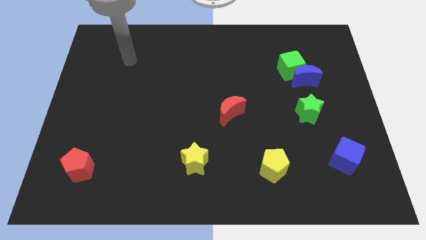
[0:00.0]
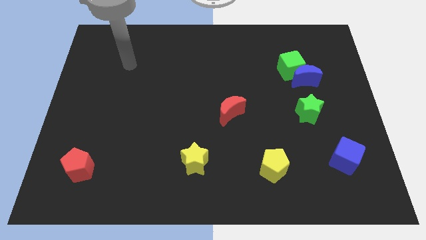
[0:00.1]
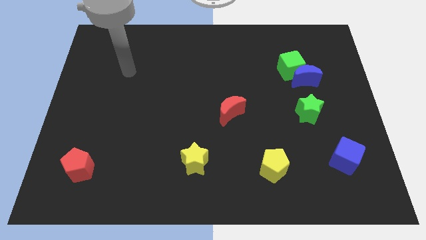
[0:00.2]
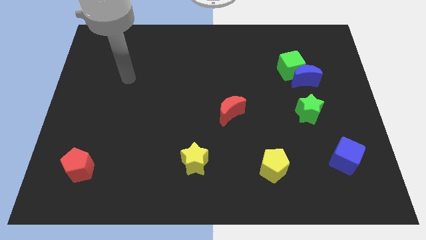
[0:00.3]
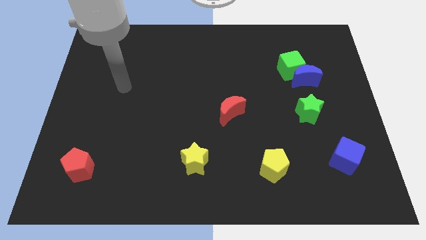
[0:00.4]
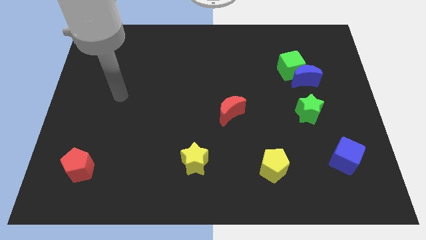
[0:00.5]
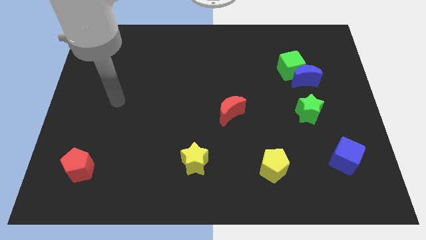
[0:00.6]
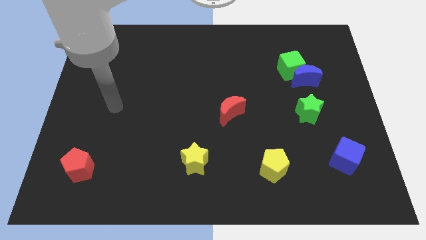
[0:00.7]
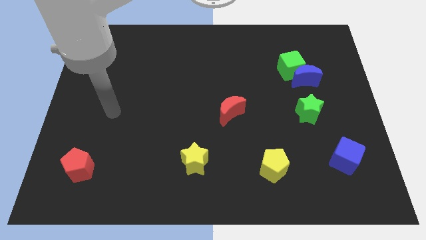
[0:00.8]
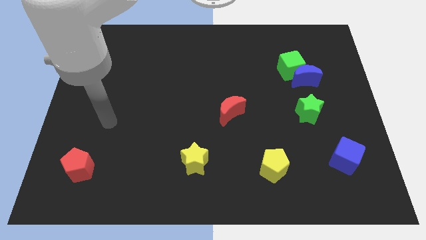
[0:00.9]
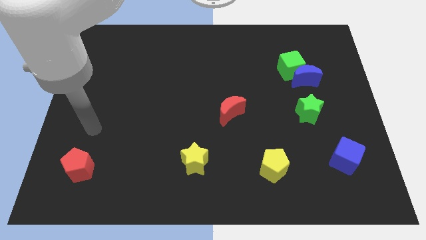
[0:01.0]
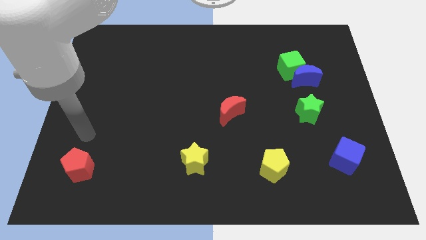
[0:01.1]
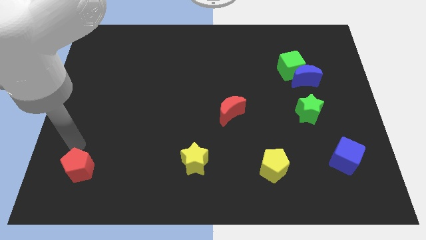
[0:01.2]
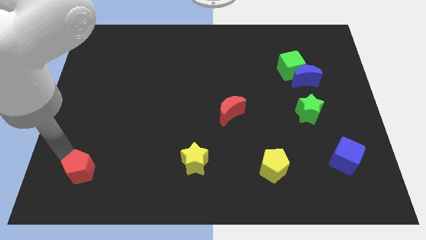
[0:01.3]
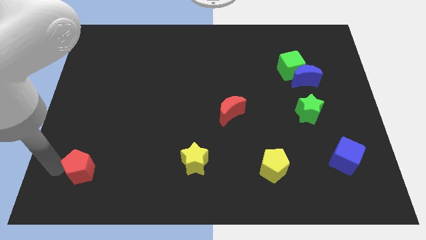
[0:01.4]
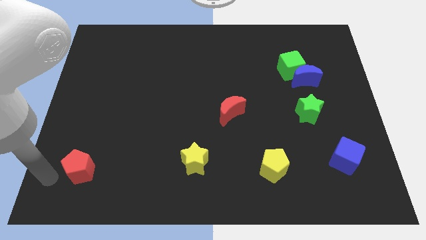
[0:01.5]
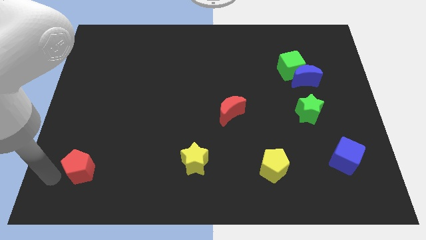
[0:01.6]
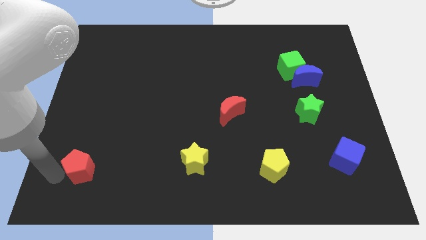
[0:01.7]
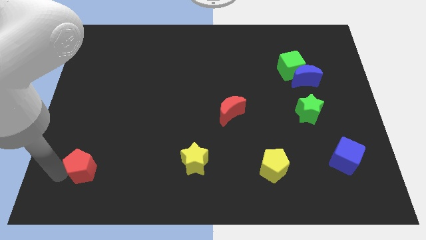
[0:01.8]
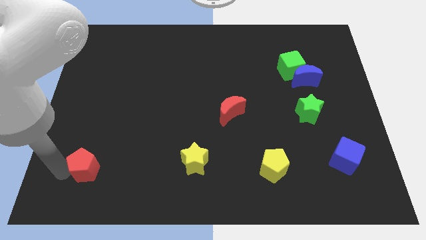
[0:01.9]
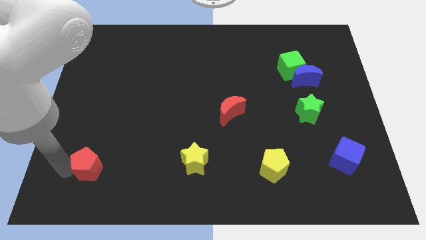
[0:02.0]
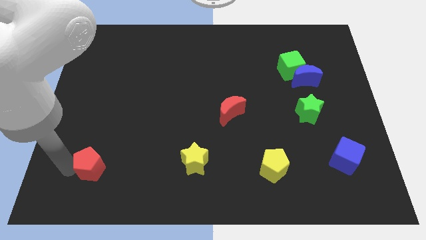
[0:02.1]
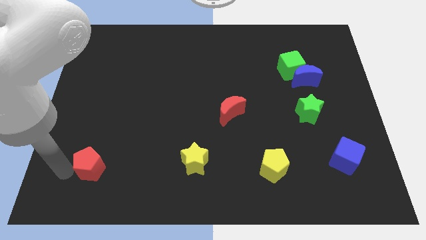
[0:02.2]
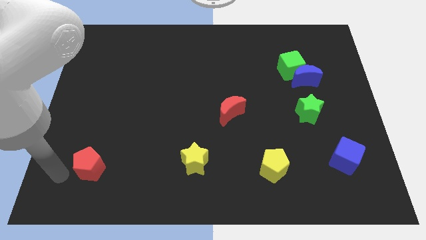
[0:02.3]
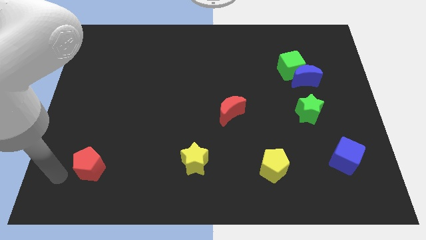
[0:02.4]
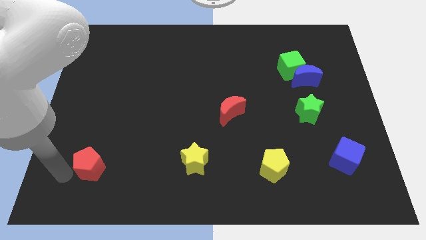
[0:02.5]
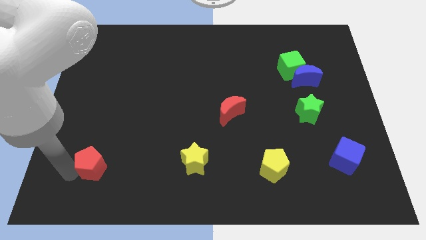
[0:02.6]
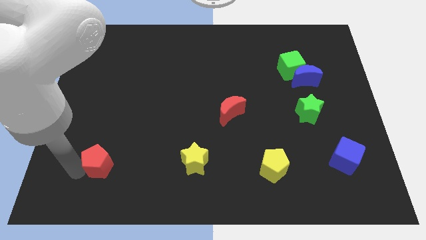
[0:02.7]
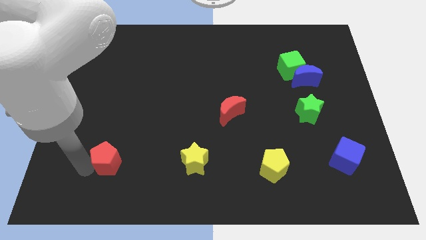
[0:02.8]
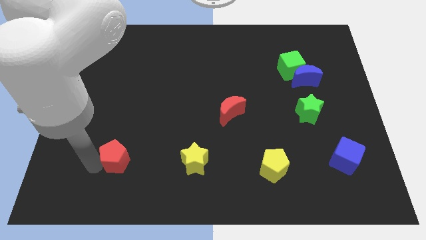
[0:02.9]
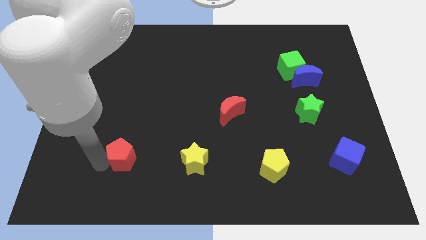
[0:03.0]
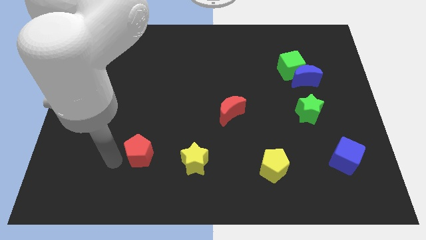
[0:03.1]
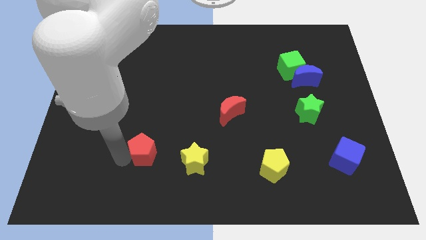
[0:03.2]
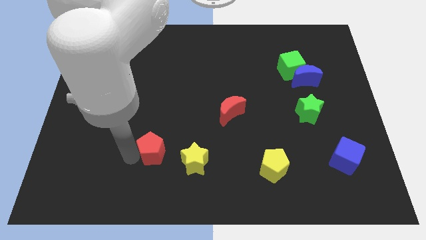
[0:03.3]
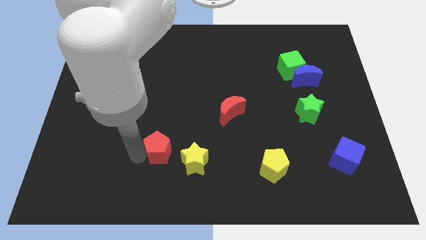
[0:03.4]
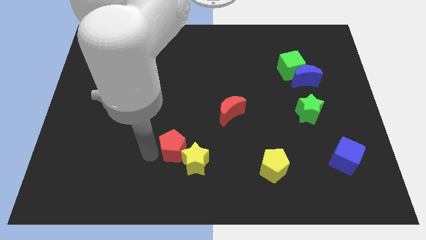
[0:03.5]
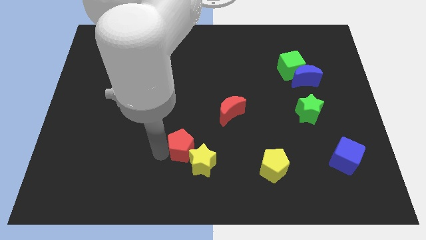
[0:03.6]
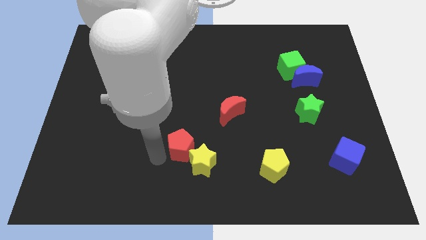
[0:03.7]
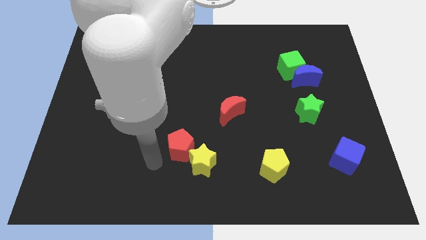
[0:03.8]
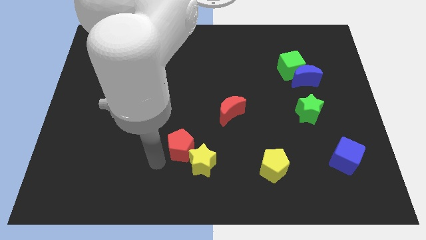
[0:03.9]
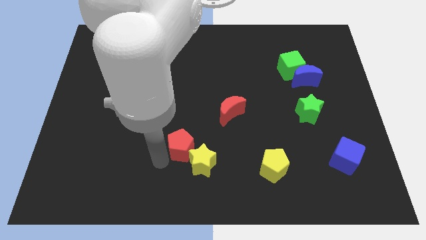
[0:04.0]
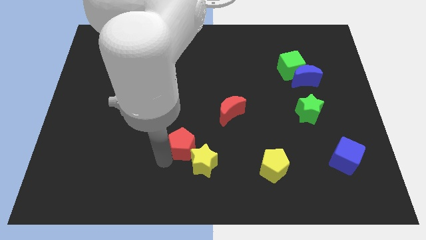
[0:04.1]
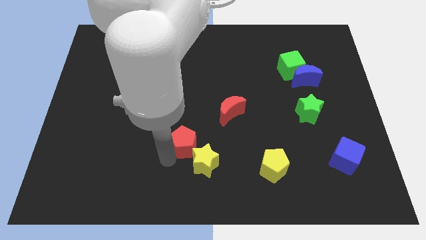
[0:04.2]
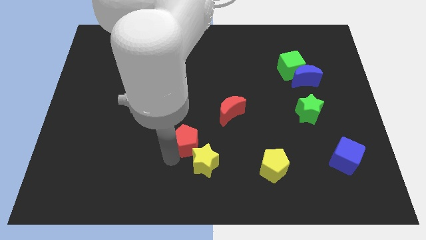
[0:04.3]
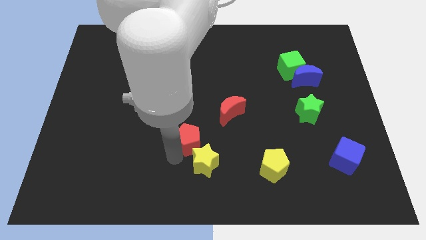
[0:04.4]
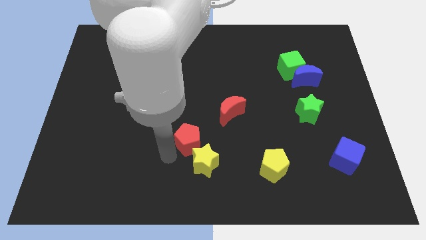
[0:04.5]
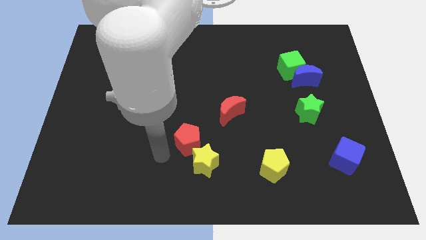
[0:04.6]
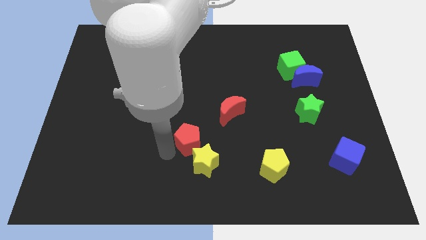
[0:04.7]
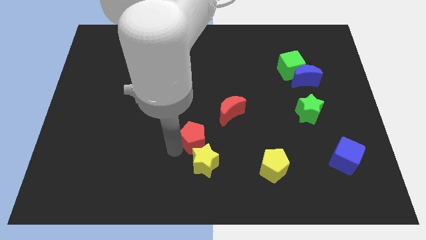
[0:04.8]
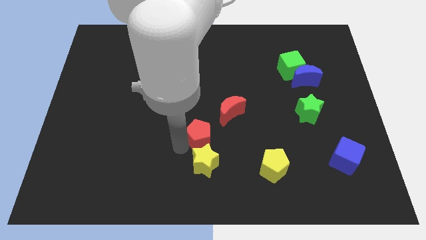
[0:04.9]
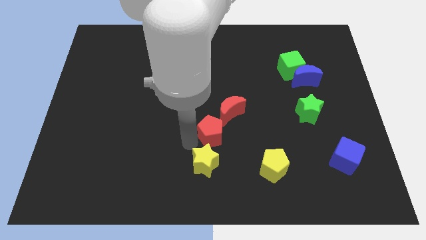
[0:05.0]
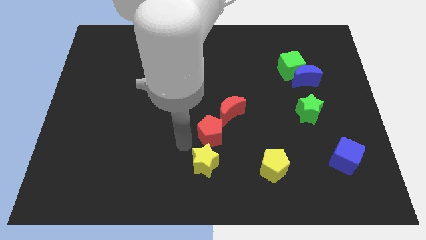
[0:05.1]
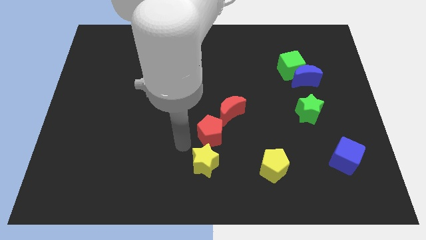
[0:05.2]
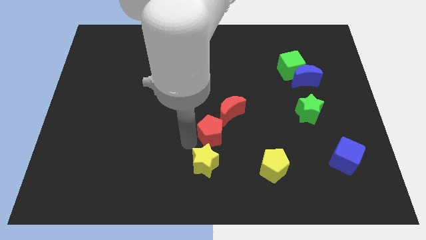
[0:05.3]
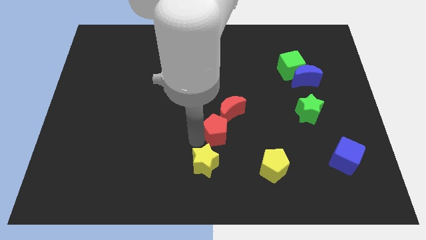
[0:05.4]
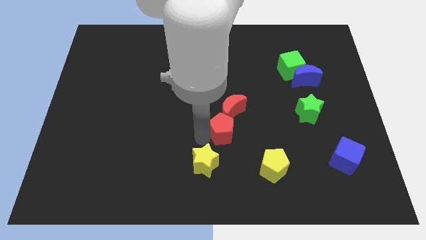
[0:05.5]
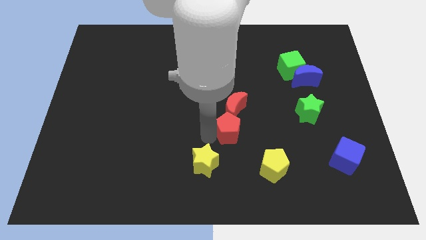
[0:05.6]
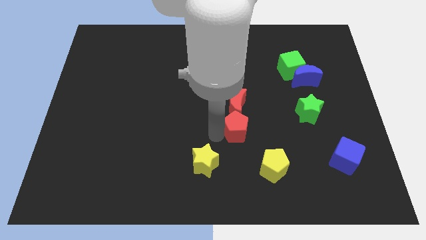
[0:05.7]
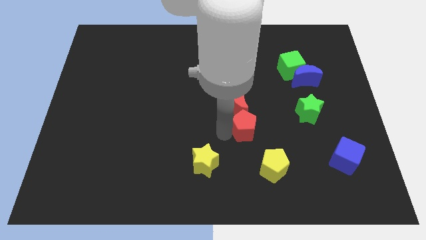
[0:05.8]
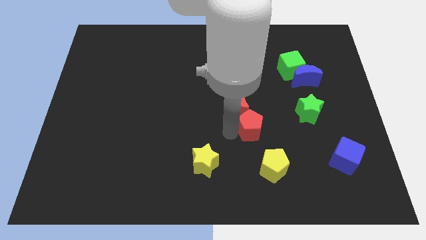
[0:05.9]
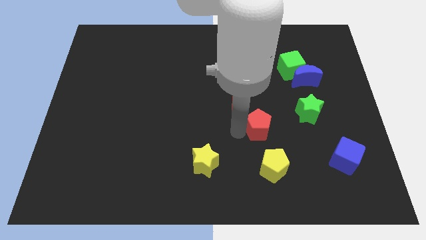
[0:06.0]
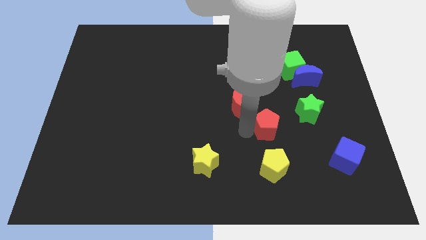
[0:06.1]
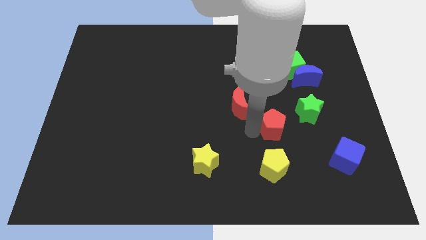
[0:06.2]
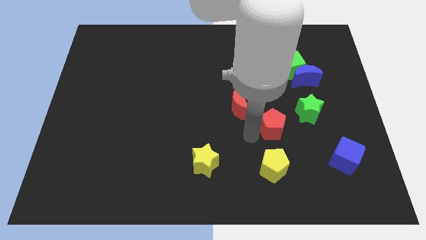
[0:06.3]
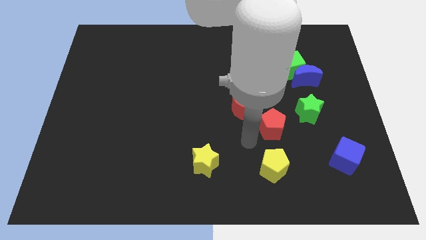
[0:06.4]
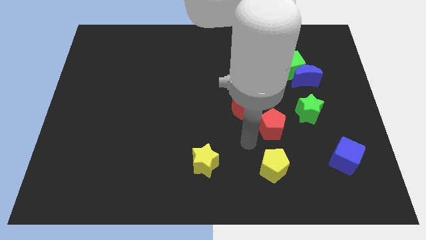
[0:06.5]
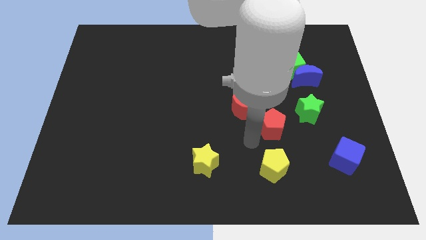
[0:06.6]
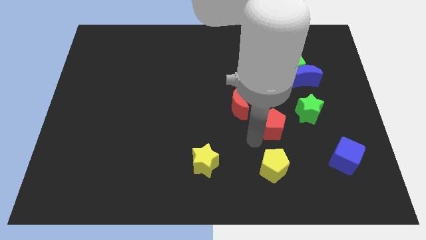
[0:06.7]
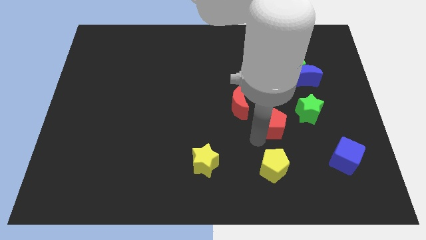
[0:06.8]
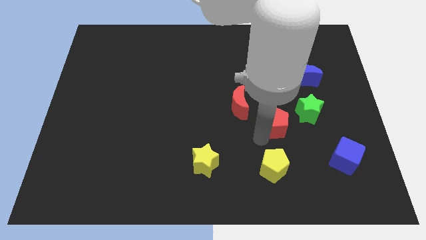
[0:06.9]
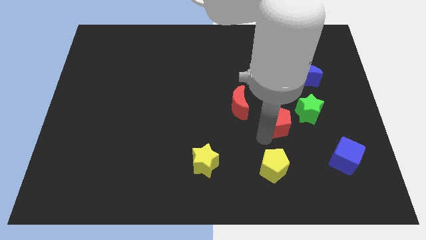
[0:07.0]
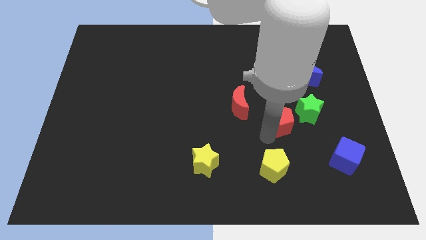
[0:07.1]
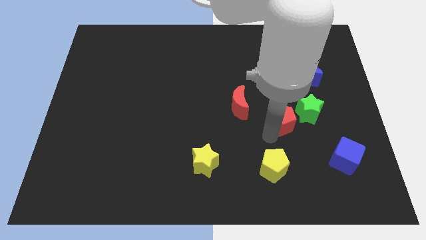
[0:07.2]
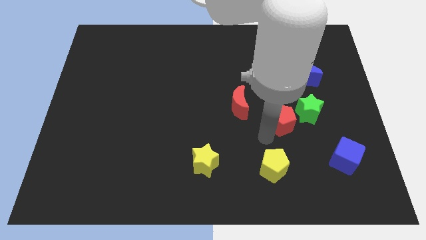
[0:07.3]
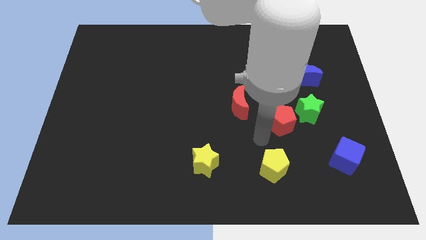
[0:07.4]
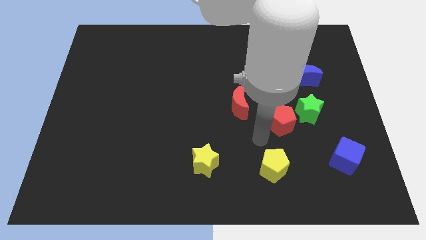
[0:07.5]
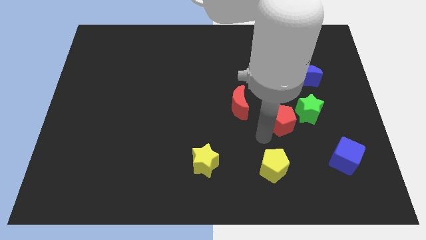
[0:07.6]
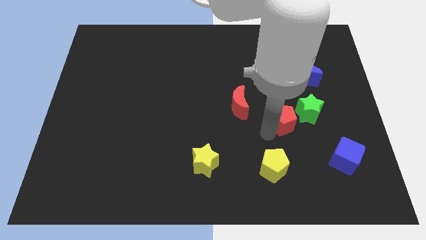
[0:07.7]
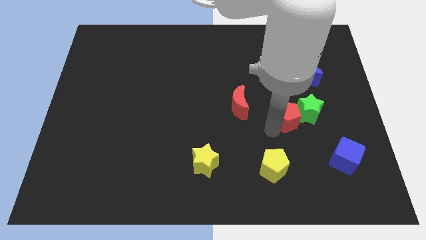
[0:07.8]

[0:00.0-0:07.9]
move the red pentagon next to the green star
